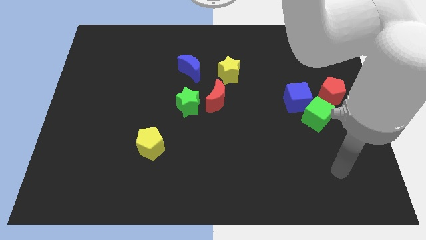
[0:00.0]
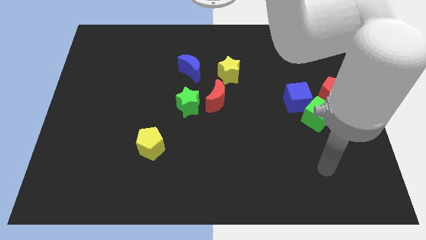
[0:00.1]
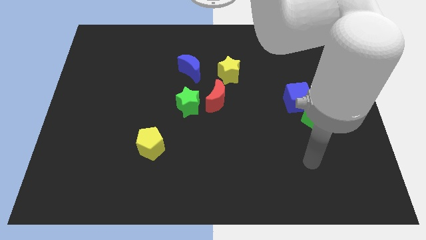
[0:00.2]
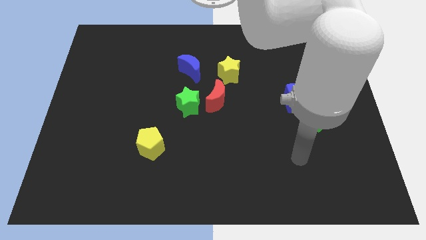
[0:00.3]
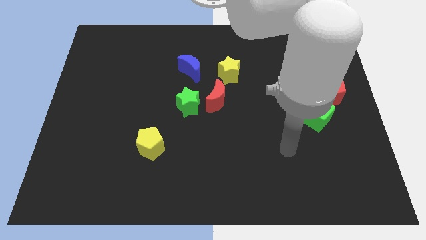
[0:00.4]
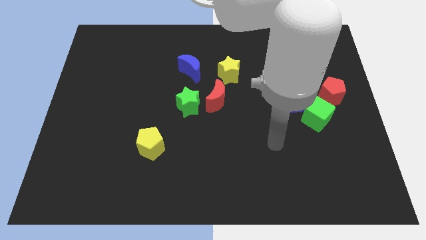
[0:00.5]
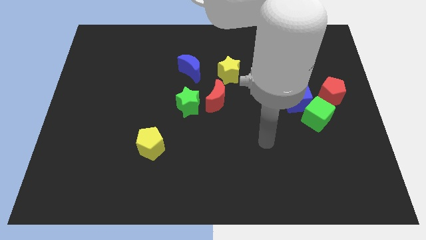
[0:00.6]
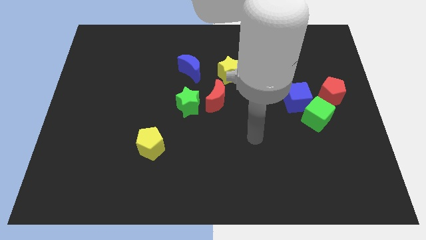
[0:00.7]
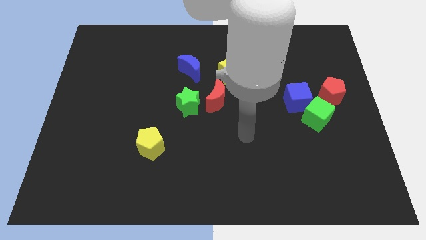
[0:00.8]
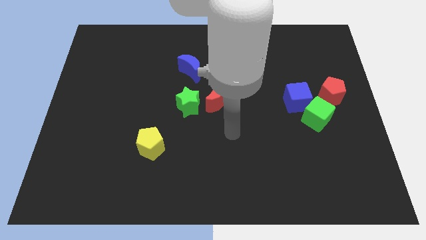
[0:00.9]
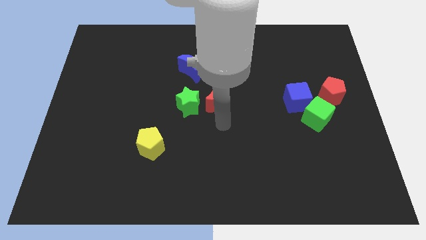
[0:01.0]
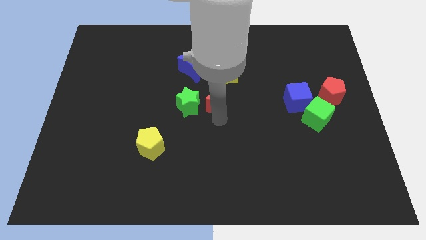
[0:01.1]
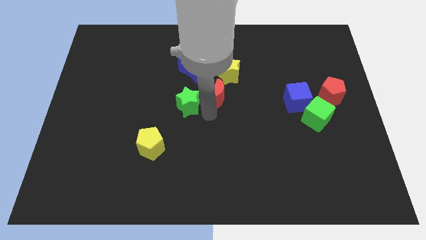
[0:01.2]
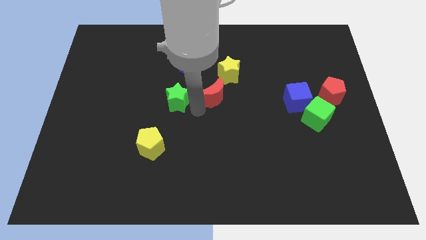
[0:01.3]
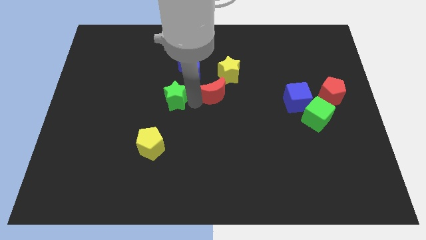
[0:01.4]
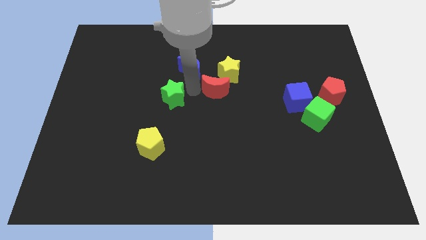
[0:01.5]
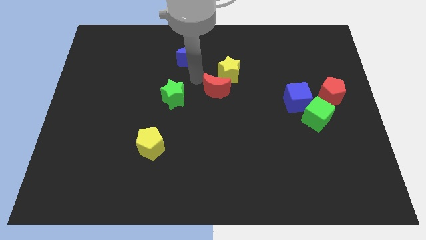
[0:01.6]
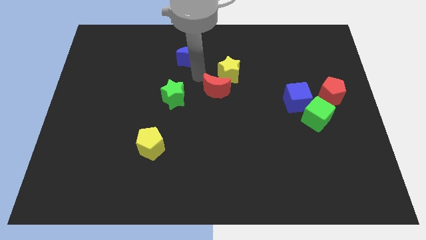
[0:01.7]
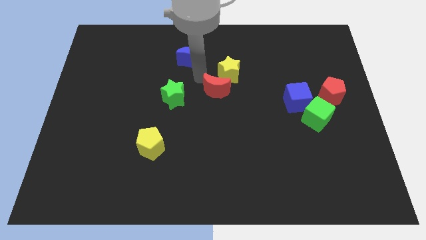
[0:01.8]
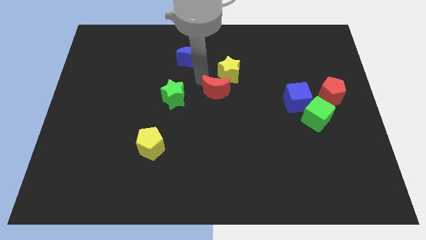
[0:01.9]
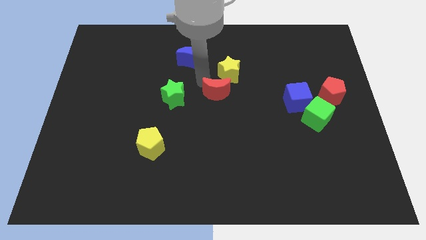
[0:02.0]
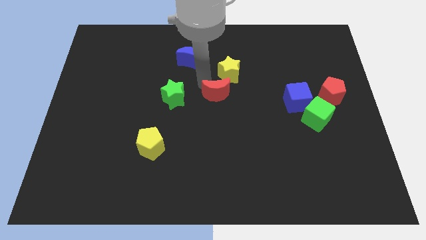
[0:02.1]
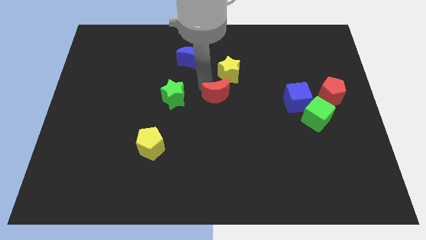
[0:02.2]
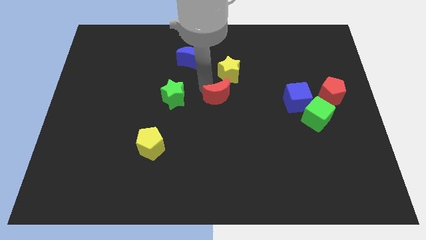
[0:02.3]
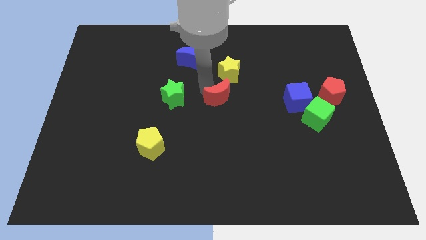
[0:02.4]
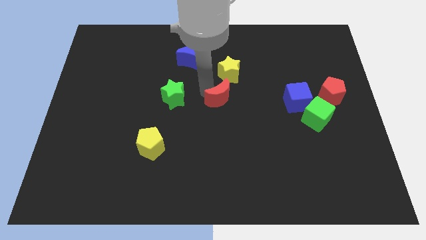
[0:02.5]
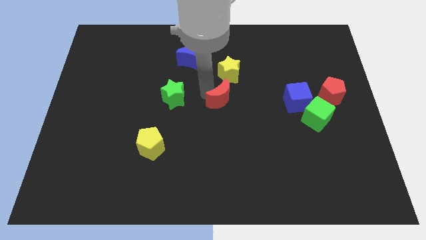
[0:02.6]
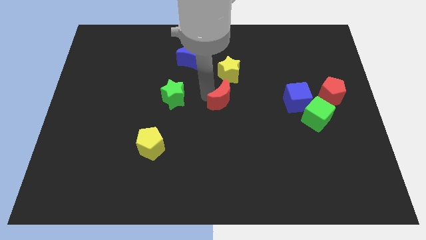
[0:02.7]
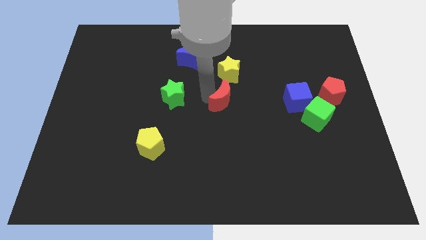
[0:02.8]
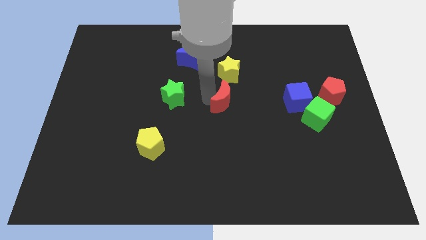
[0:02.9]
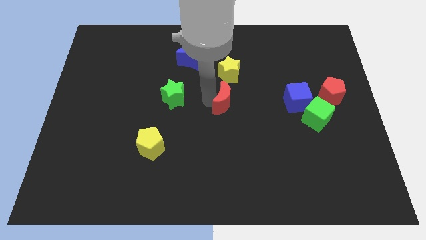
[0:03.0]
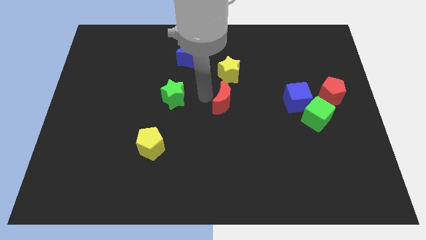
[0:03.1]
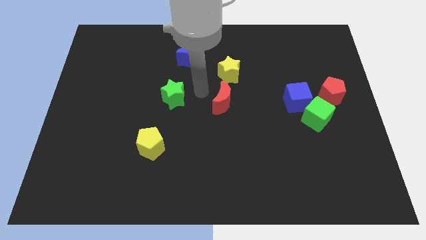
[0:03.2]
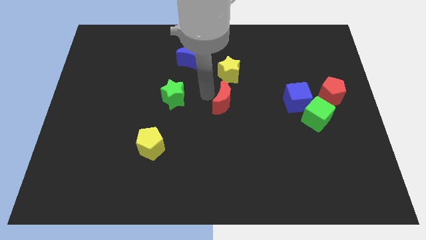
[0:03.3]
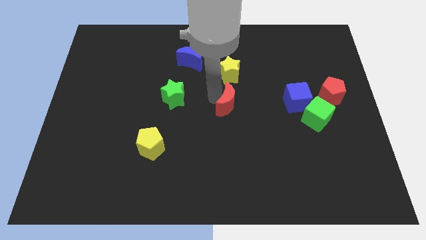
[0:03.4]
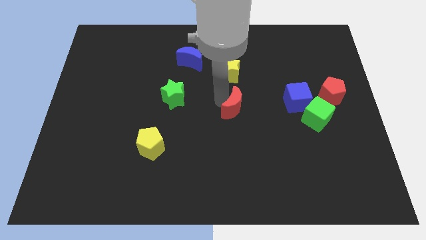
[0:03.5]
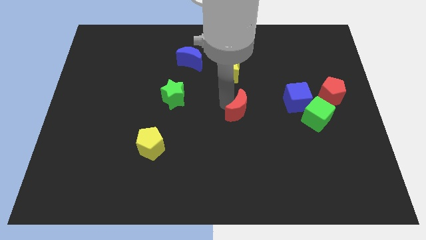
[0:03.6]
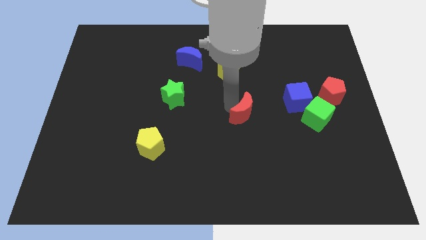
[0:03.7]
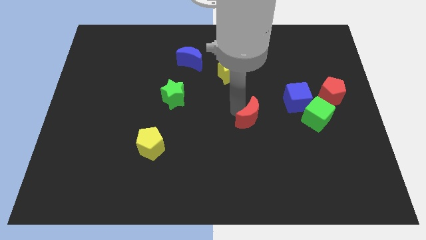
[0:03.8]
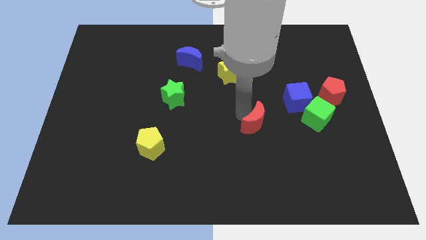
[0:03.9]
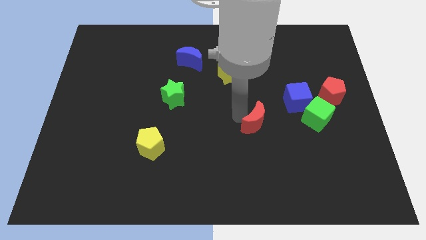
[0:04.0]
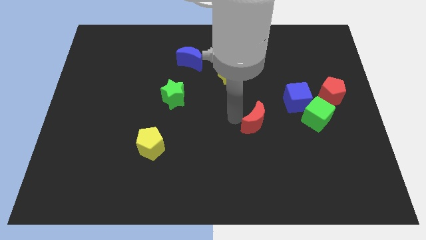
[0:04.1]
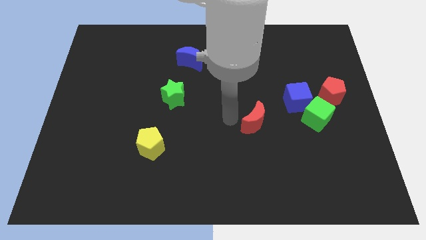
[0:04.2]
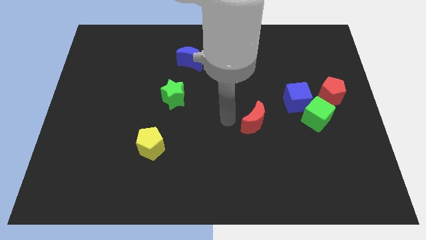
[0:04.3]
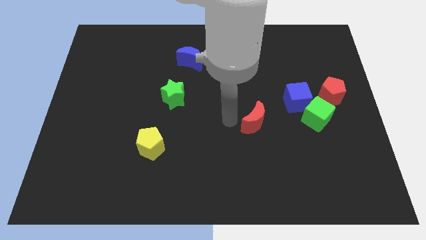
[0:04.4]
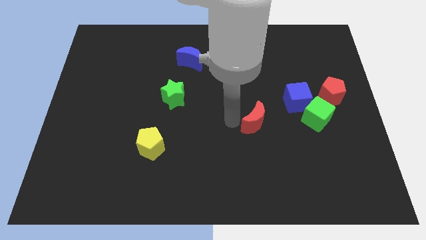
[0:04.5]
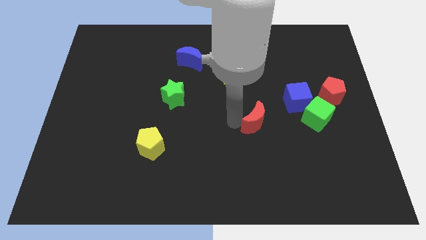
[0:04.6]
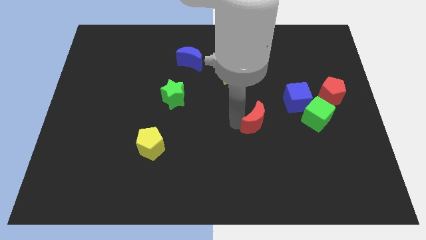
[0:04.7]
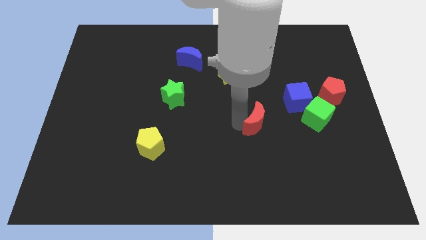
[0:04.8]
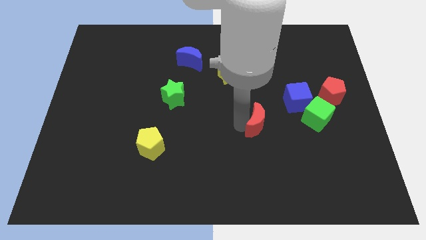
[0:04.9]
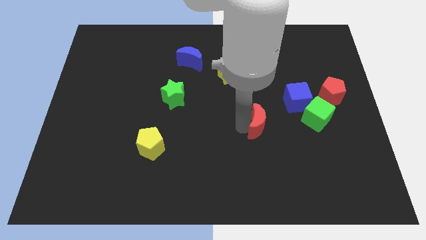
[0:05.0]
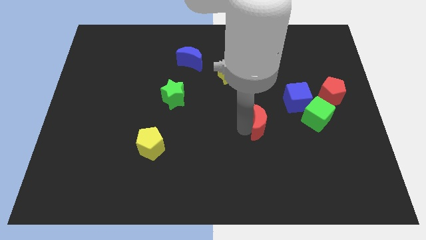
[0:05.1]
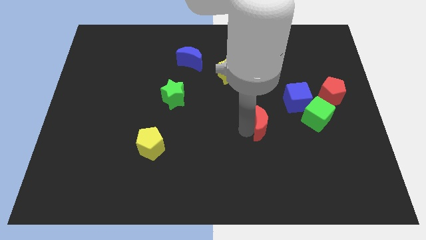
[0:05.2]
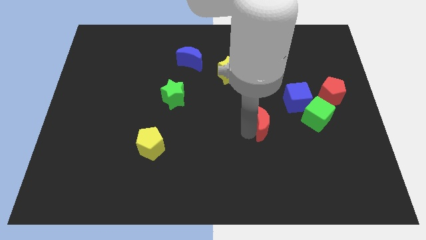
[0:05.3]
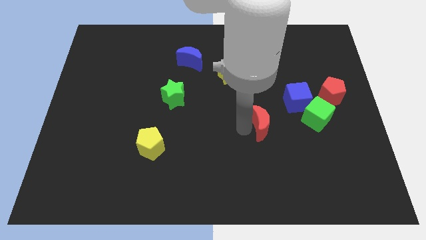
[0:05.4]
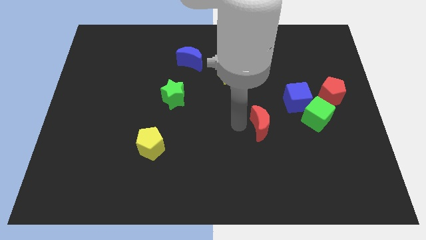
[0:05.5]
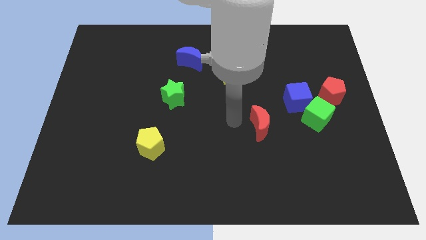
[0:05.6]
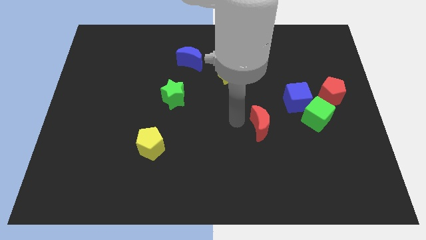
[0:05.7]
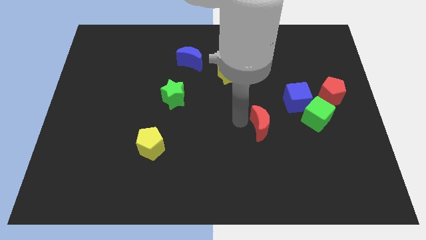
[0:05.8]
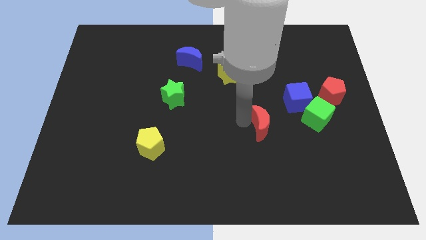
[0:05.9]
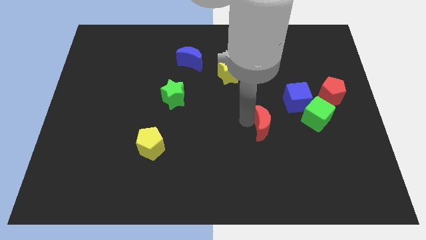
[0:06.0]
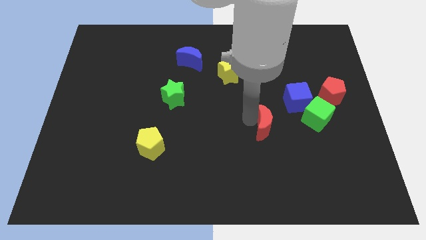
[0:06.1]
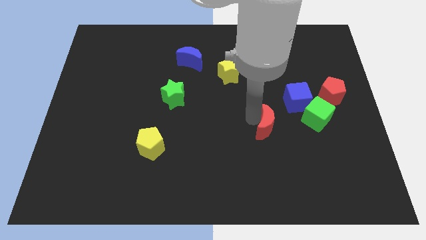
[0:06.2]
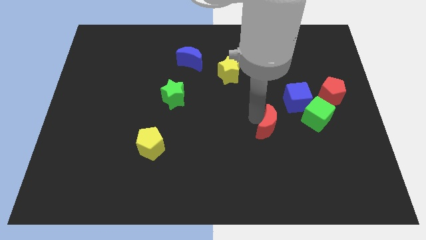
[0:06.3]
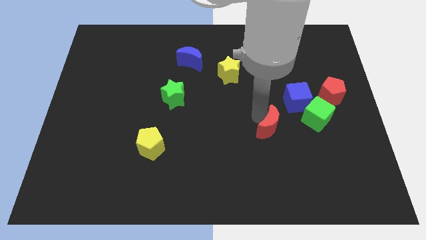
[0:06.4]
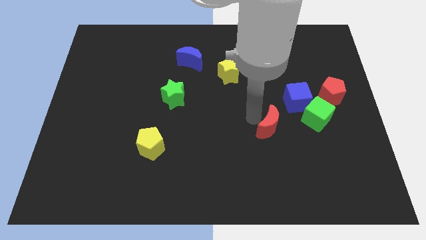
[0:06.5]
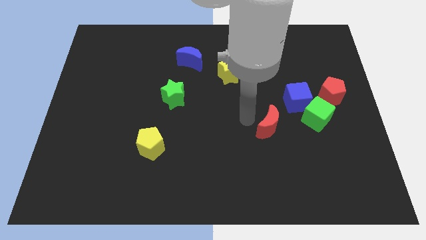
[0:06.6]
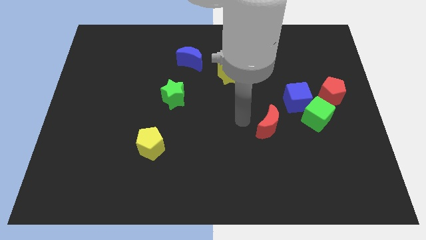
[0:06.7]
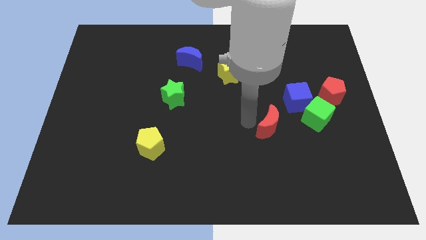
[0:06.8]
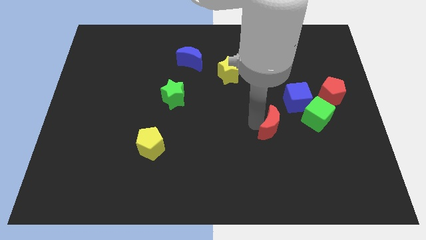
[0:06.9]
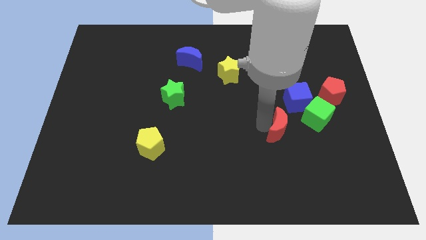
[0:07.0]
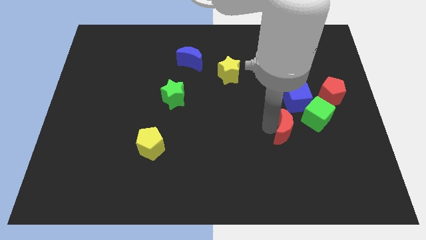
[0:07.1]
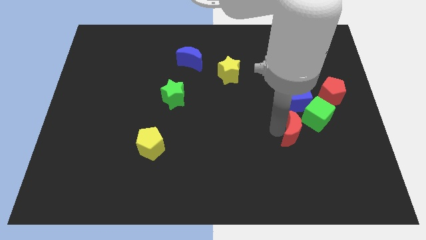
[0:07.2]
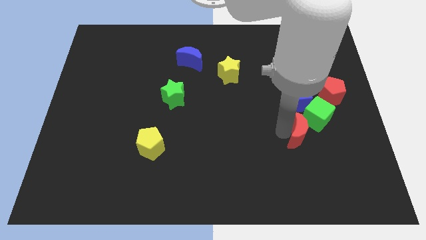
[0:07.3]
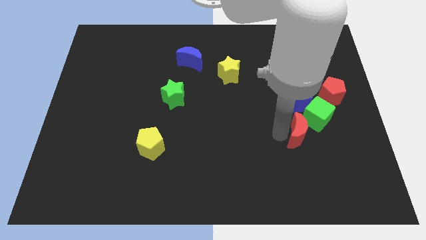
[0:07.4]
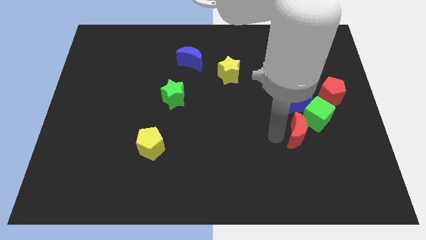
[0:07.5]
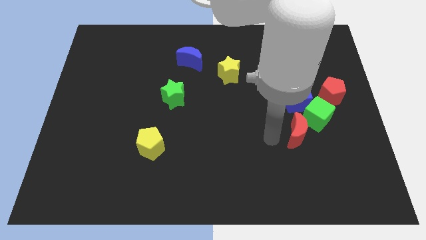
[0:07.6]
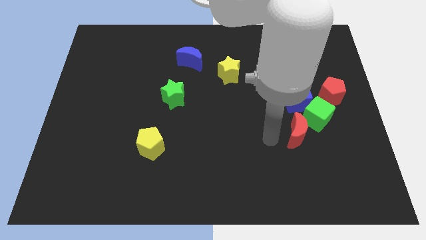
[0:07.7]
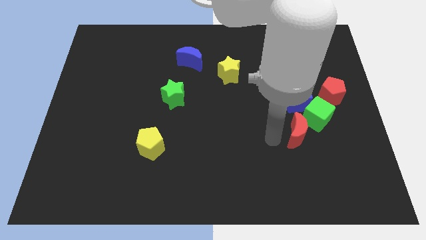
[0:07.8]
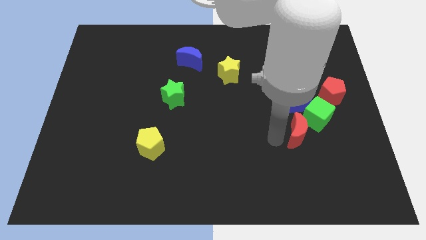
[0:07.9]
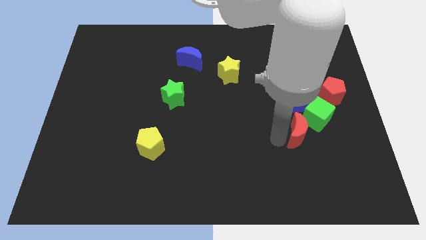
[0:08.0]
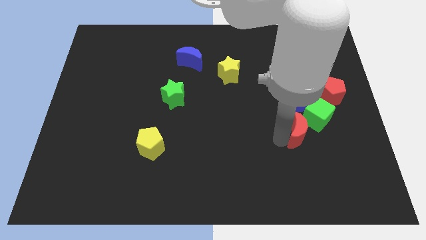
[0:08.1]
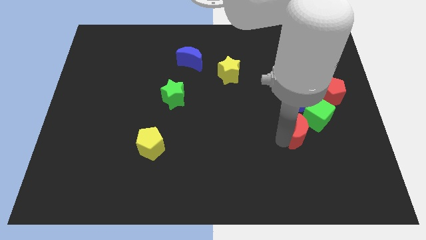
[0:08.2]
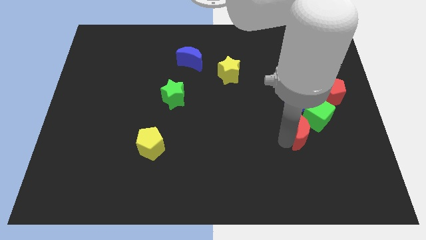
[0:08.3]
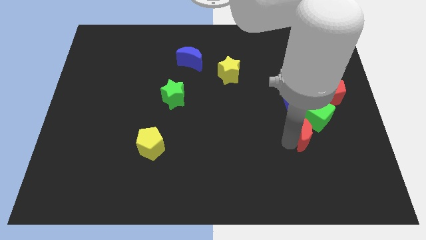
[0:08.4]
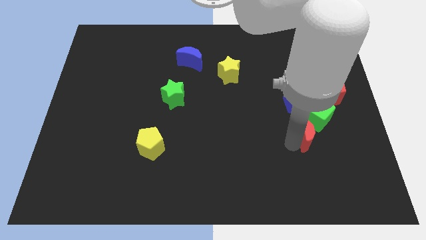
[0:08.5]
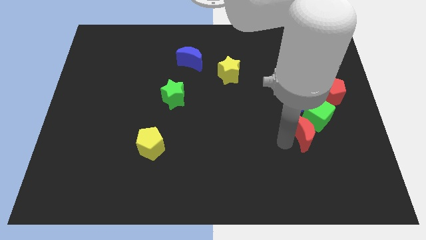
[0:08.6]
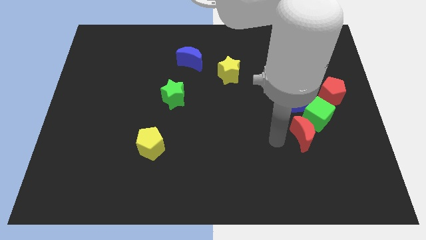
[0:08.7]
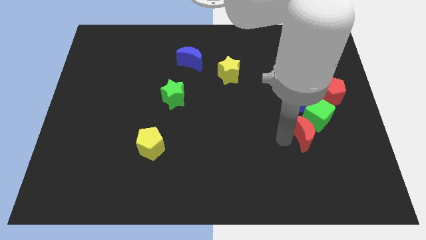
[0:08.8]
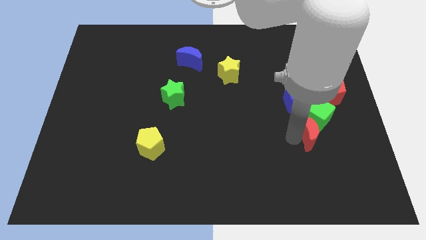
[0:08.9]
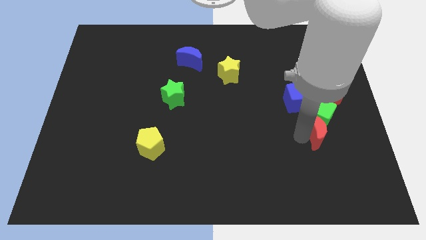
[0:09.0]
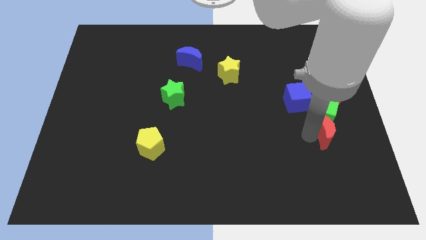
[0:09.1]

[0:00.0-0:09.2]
push the red moon below the red pentagon
